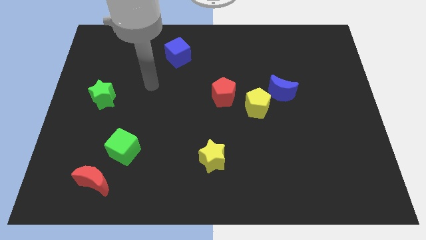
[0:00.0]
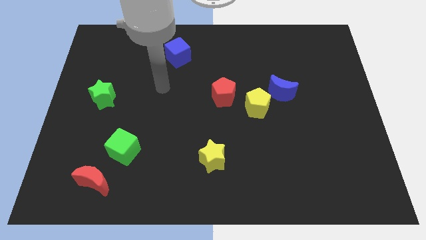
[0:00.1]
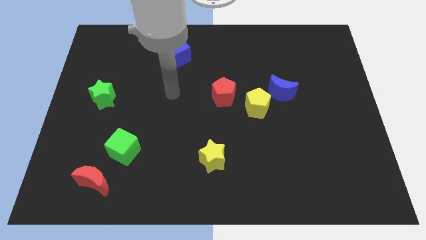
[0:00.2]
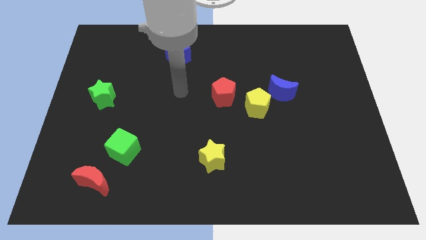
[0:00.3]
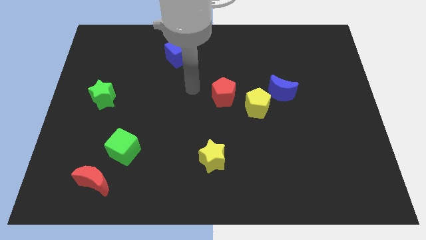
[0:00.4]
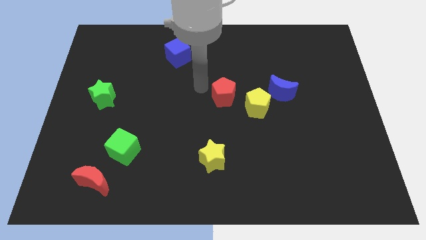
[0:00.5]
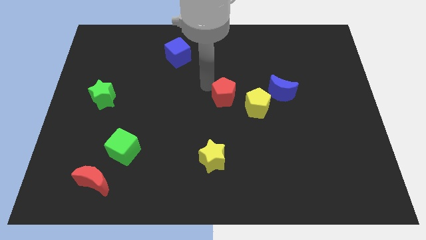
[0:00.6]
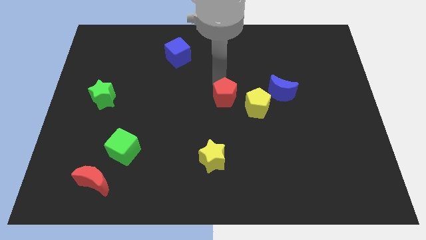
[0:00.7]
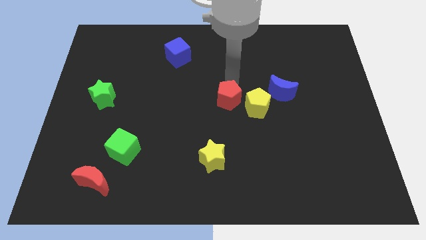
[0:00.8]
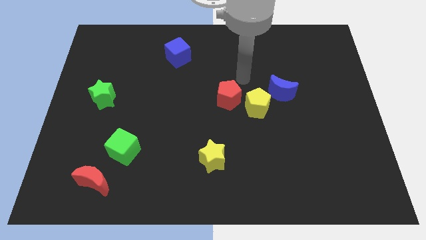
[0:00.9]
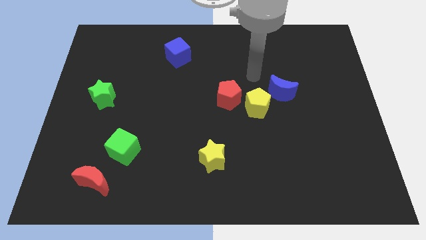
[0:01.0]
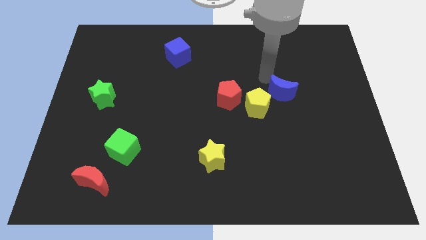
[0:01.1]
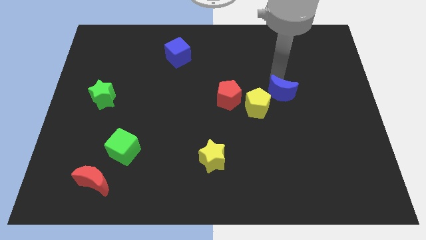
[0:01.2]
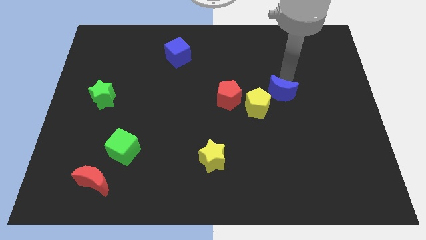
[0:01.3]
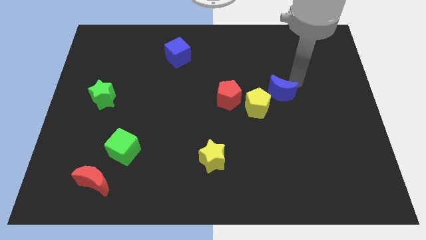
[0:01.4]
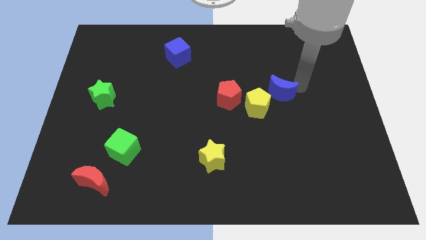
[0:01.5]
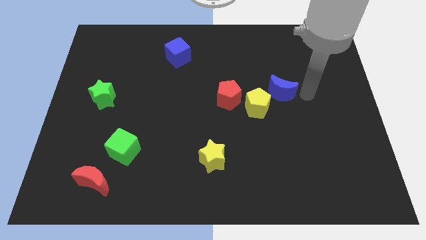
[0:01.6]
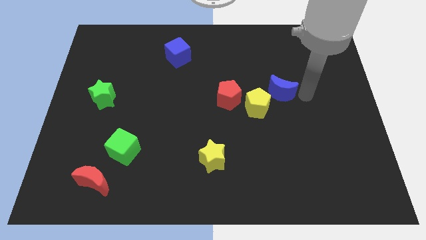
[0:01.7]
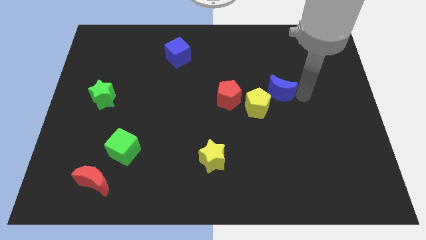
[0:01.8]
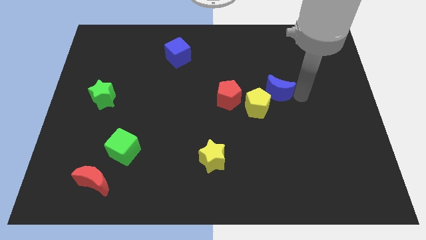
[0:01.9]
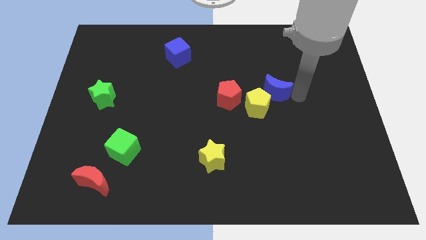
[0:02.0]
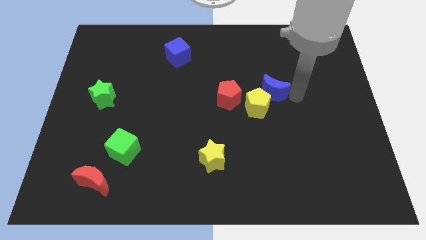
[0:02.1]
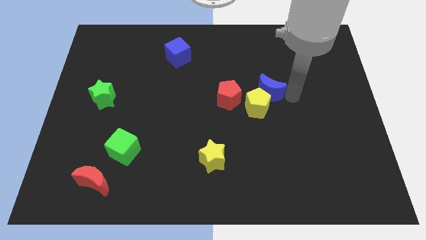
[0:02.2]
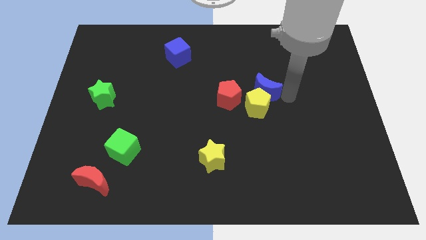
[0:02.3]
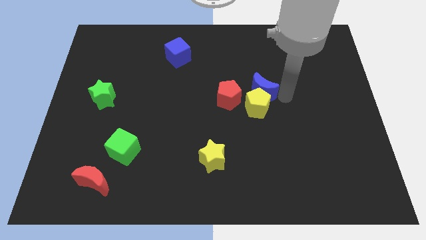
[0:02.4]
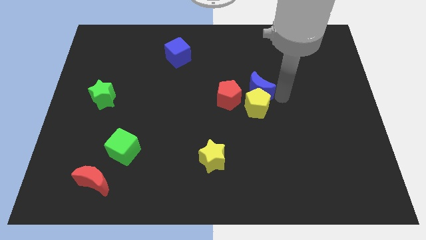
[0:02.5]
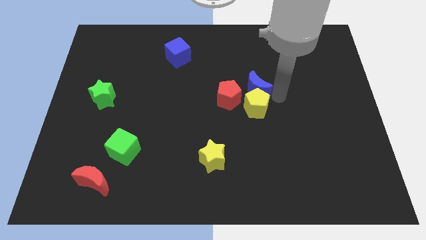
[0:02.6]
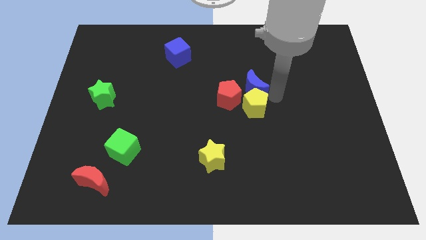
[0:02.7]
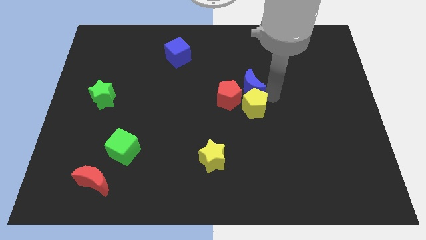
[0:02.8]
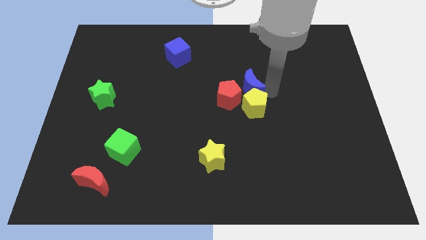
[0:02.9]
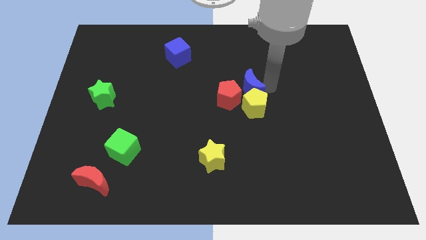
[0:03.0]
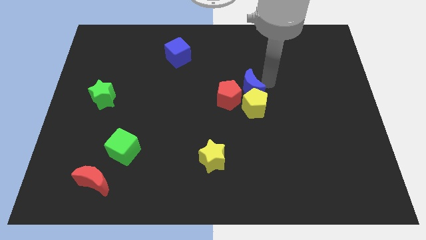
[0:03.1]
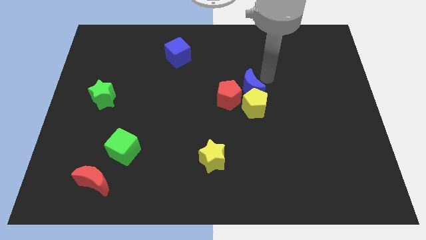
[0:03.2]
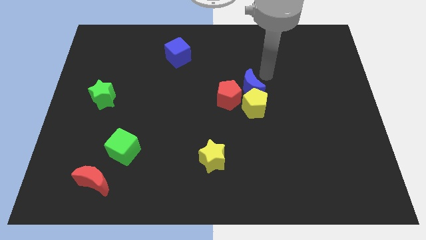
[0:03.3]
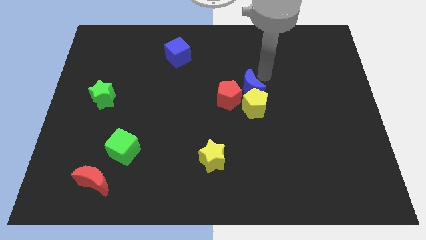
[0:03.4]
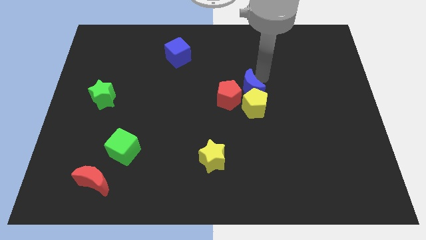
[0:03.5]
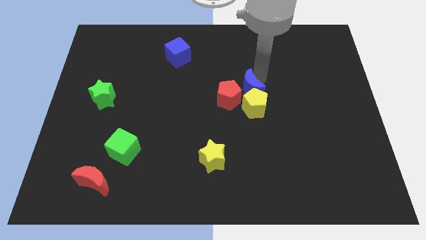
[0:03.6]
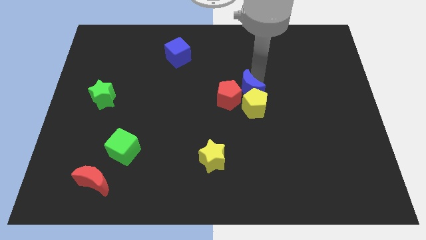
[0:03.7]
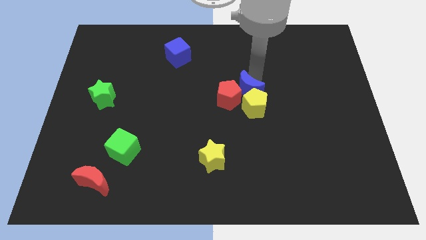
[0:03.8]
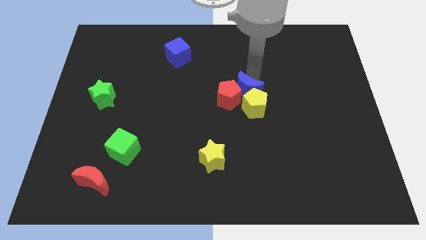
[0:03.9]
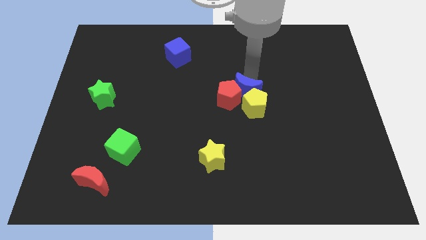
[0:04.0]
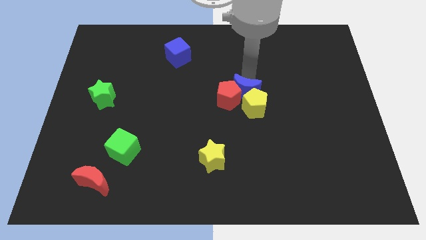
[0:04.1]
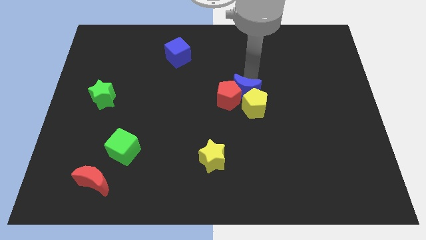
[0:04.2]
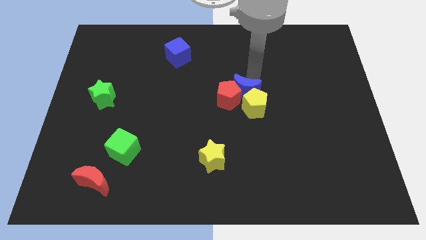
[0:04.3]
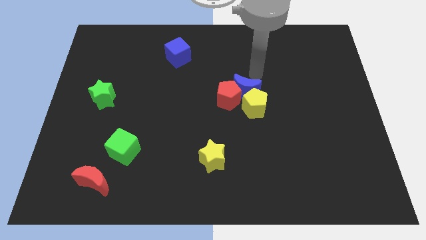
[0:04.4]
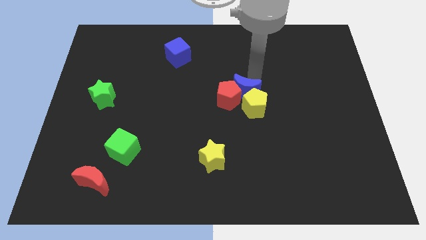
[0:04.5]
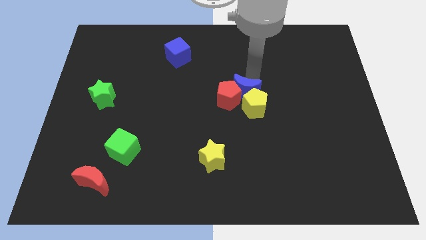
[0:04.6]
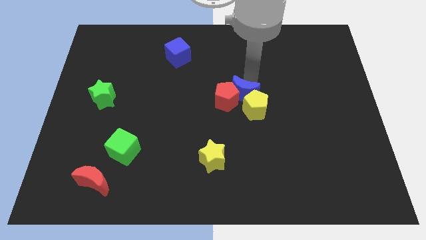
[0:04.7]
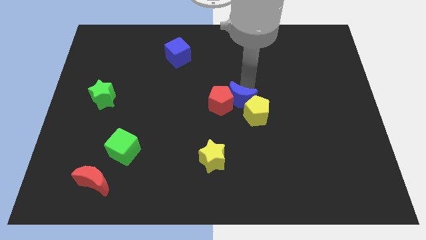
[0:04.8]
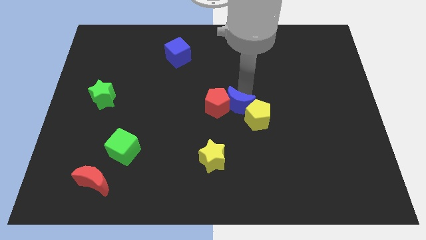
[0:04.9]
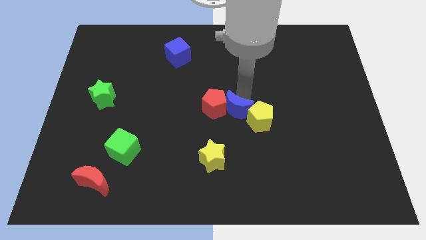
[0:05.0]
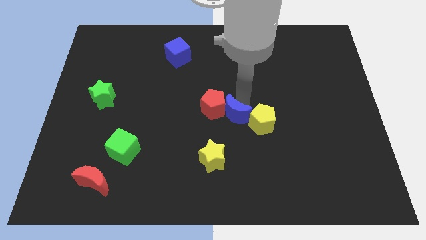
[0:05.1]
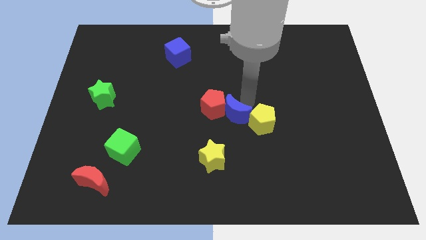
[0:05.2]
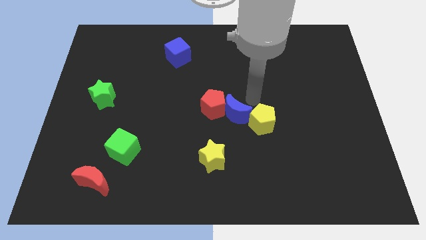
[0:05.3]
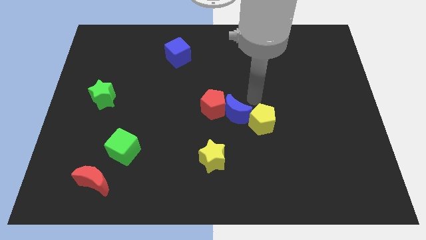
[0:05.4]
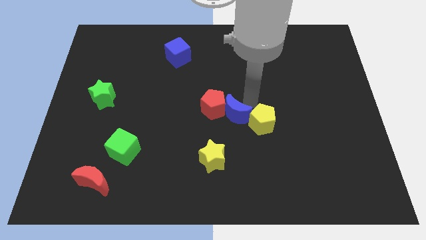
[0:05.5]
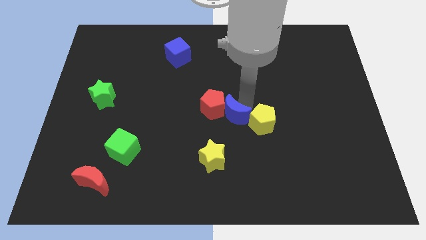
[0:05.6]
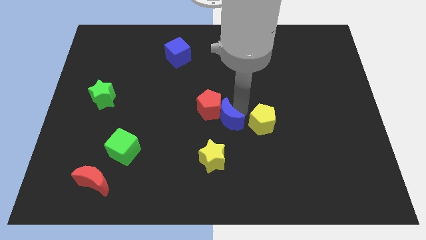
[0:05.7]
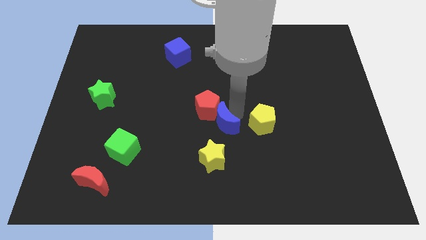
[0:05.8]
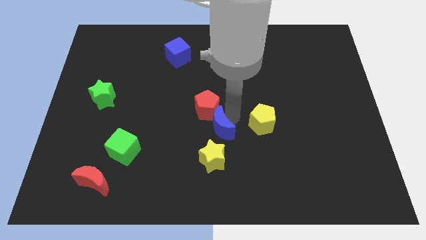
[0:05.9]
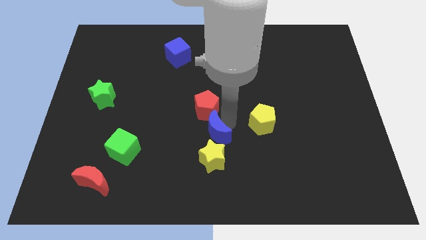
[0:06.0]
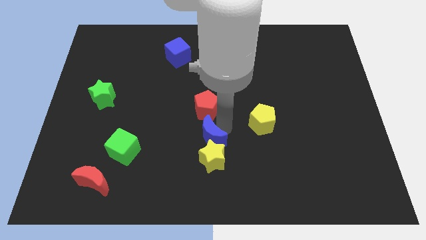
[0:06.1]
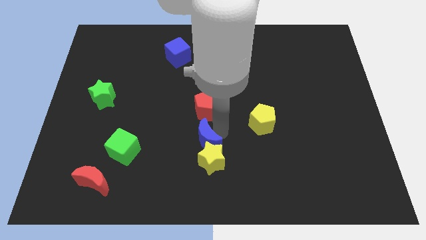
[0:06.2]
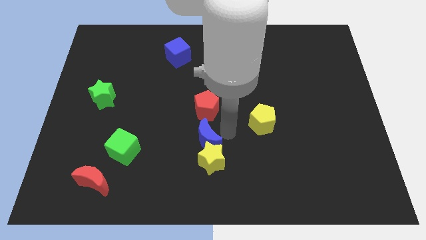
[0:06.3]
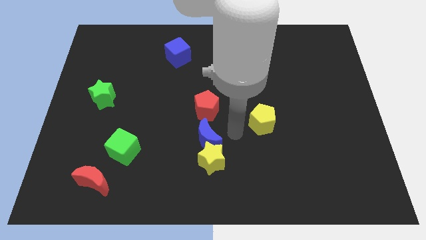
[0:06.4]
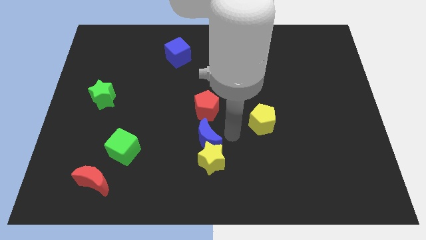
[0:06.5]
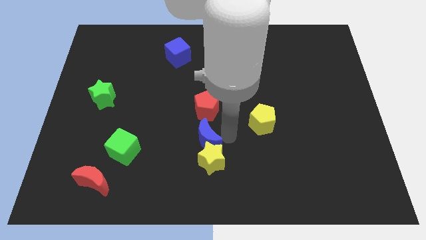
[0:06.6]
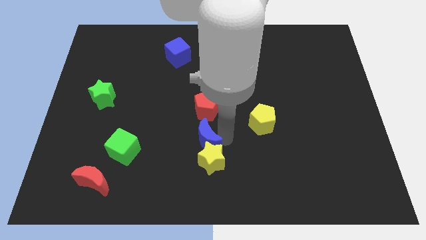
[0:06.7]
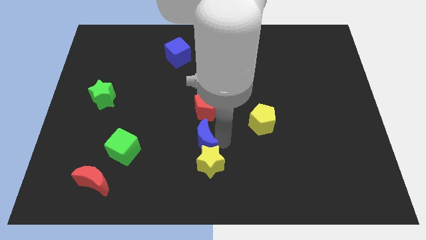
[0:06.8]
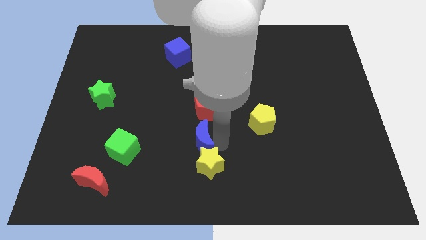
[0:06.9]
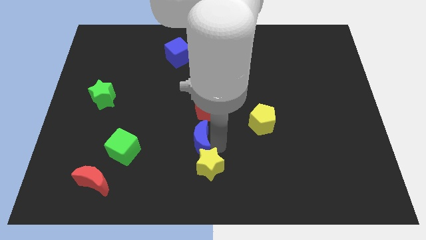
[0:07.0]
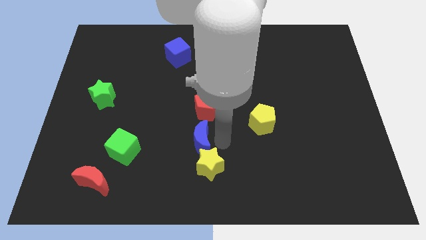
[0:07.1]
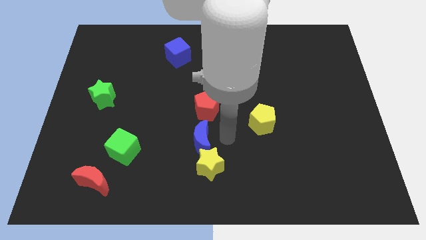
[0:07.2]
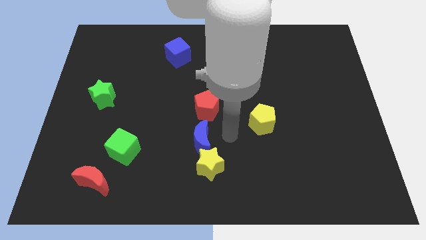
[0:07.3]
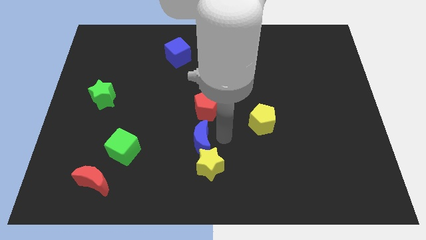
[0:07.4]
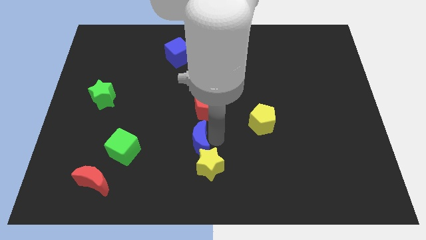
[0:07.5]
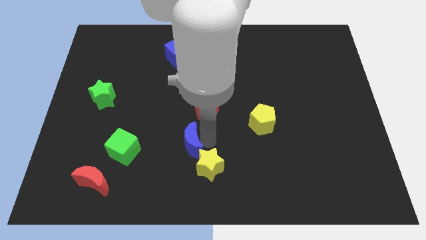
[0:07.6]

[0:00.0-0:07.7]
put the blue moon right of the green cube
